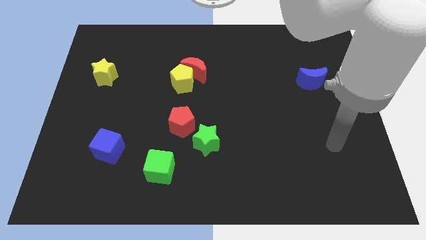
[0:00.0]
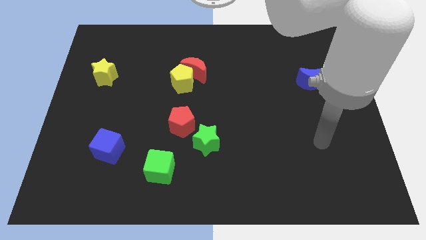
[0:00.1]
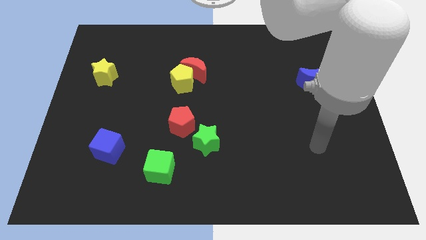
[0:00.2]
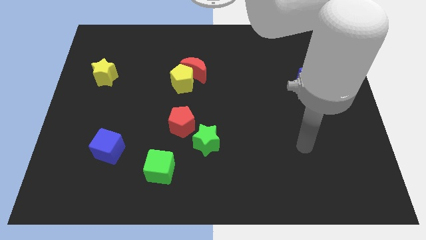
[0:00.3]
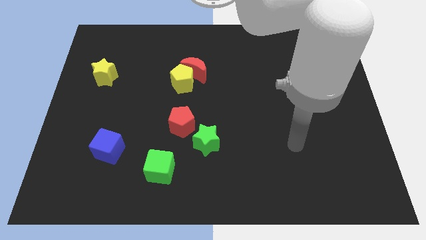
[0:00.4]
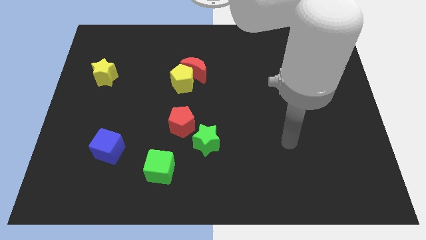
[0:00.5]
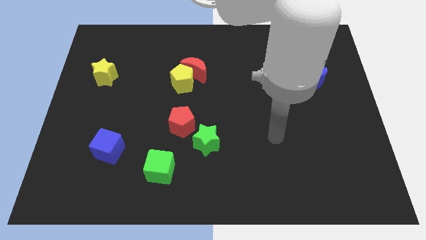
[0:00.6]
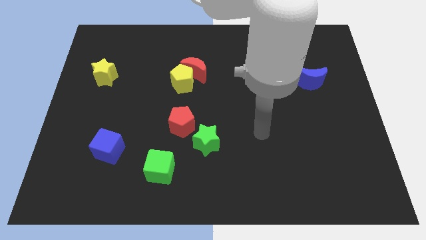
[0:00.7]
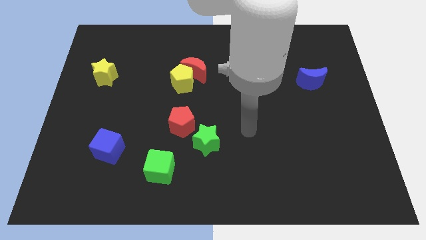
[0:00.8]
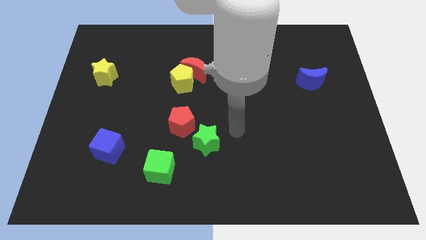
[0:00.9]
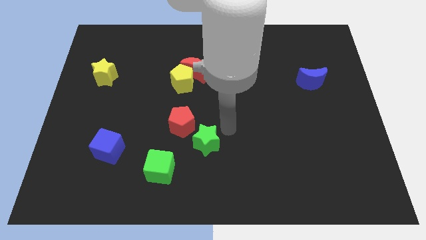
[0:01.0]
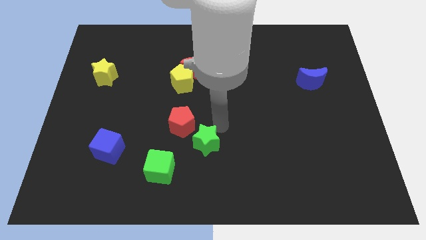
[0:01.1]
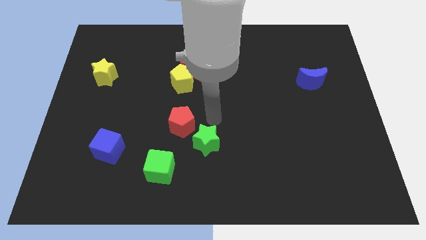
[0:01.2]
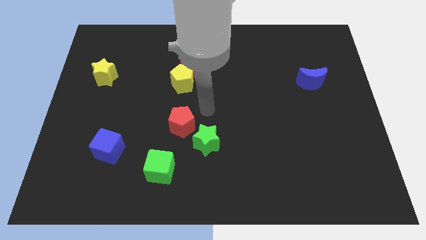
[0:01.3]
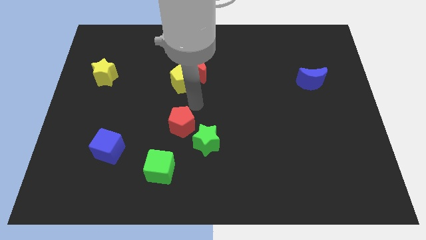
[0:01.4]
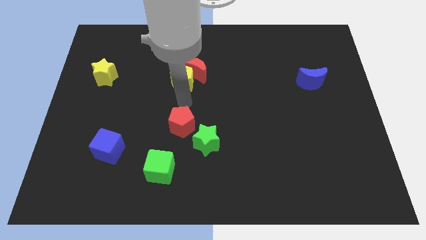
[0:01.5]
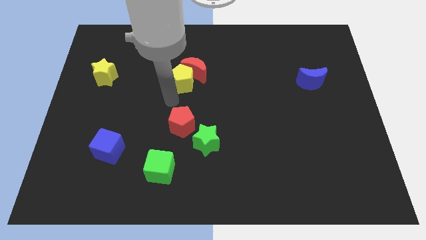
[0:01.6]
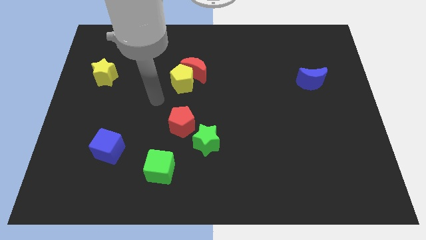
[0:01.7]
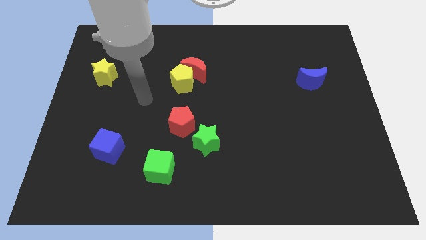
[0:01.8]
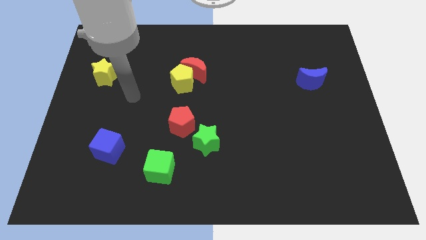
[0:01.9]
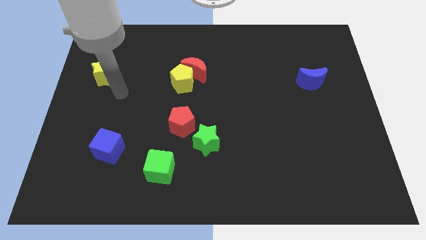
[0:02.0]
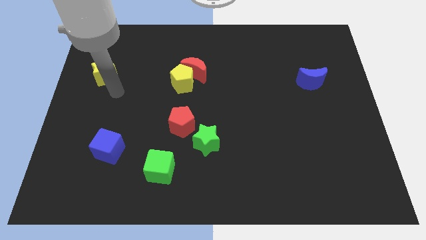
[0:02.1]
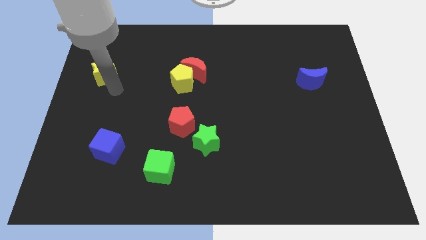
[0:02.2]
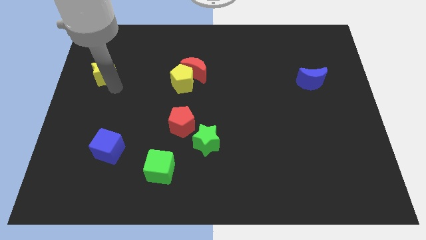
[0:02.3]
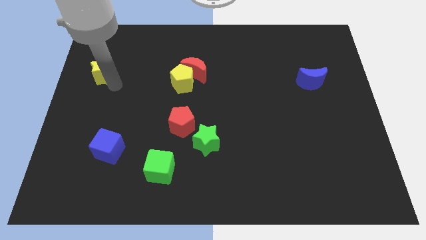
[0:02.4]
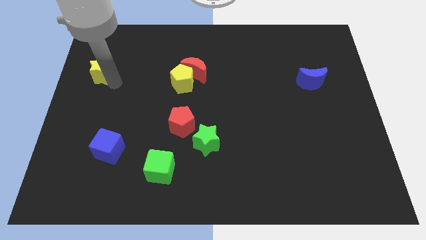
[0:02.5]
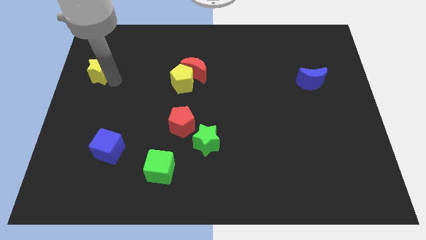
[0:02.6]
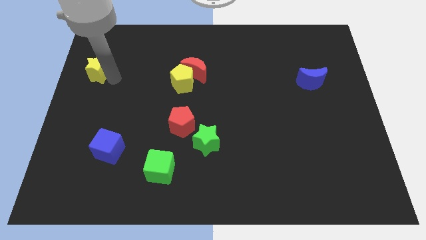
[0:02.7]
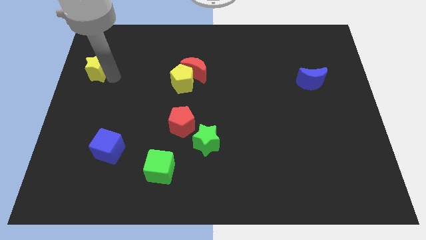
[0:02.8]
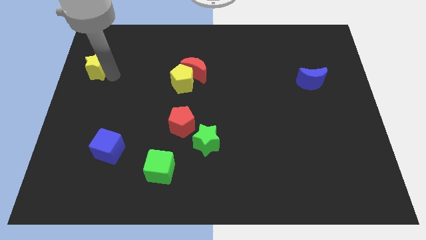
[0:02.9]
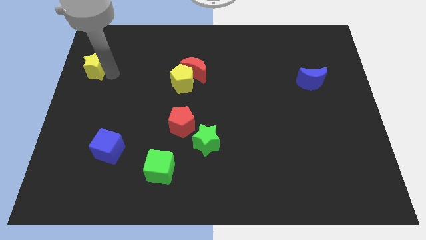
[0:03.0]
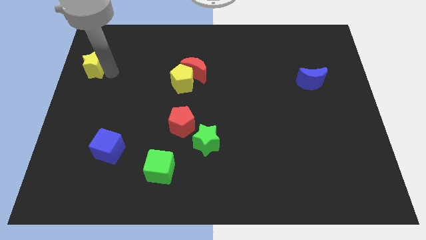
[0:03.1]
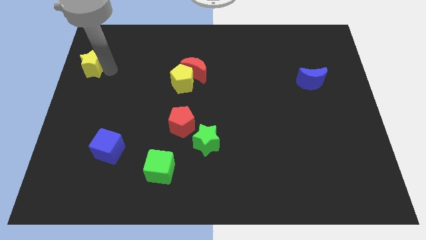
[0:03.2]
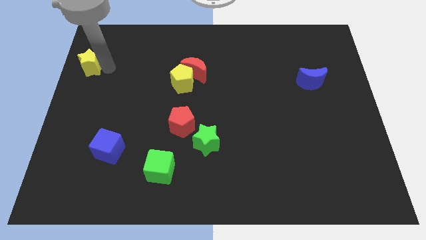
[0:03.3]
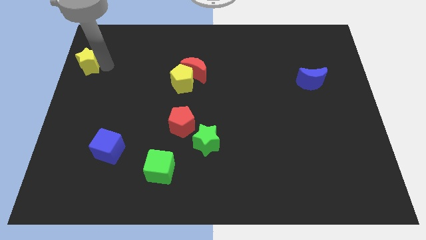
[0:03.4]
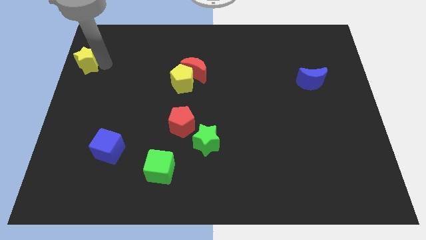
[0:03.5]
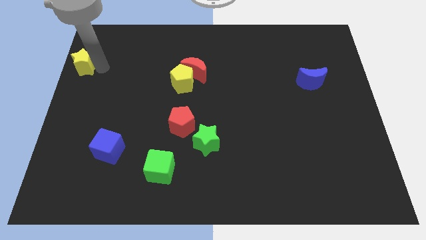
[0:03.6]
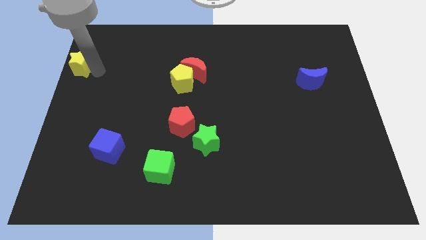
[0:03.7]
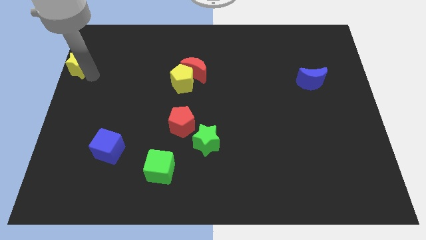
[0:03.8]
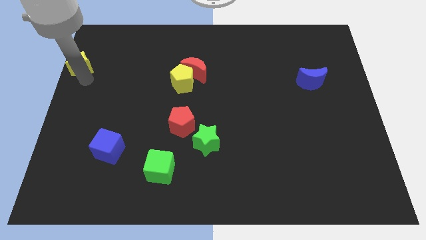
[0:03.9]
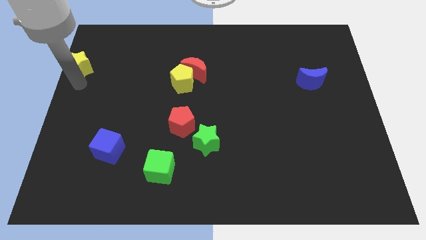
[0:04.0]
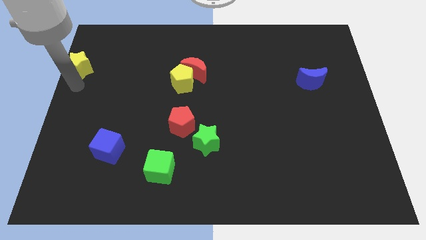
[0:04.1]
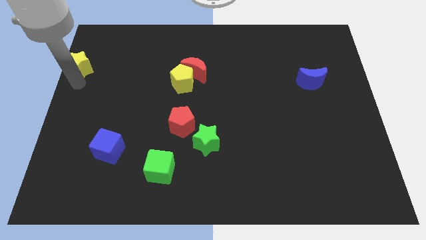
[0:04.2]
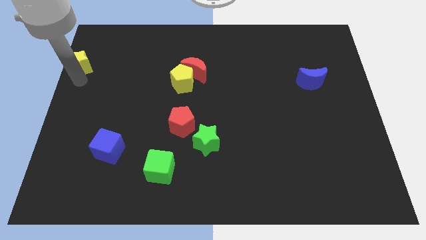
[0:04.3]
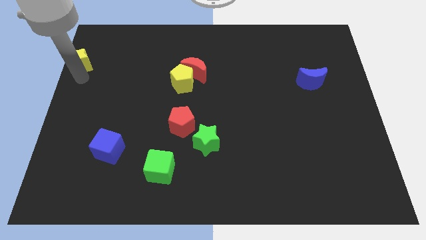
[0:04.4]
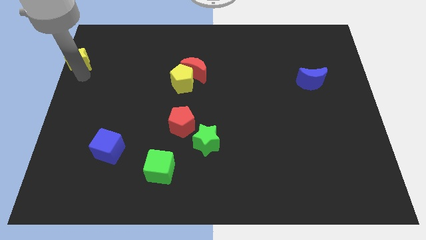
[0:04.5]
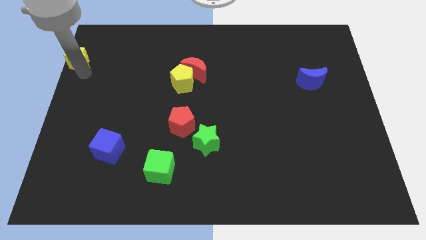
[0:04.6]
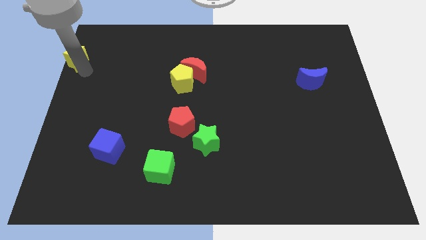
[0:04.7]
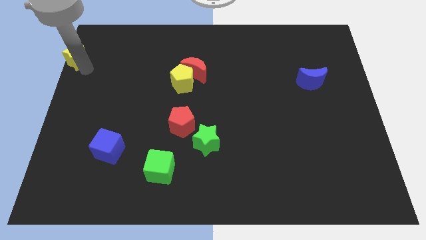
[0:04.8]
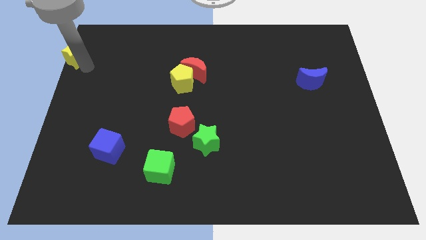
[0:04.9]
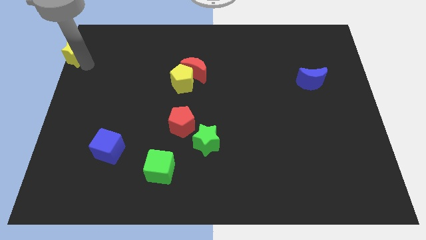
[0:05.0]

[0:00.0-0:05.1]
slide the yellow star to the top left corner
